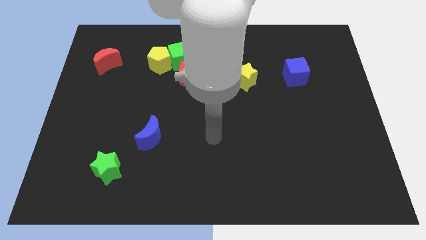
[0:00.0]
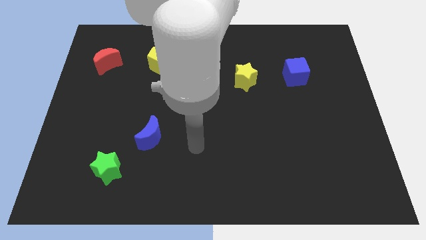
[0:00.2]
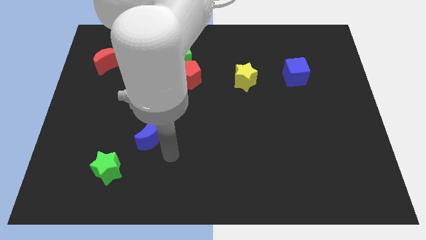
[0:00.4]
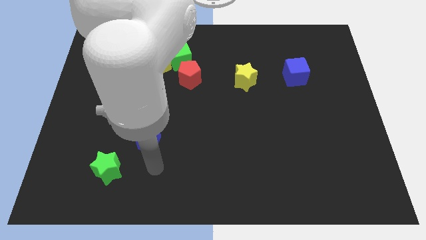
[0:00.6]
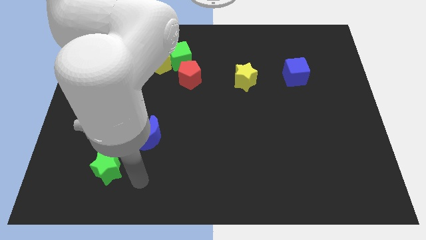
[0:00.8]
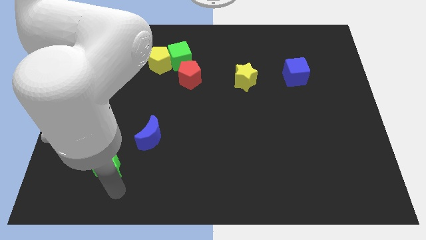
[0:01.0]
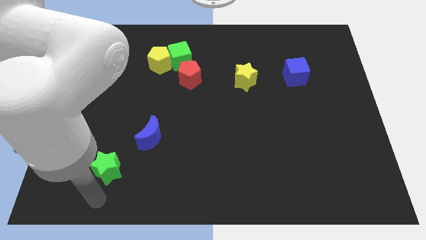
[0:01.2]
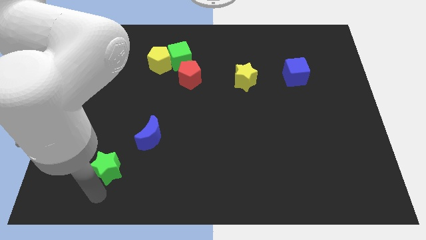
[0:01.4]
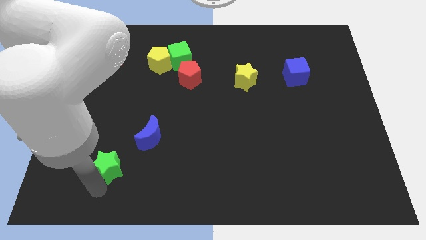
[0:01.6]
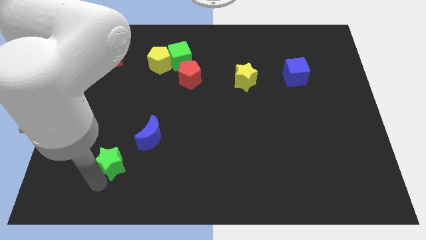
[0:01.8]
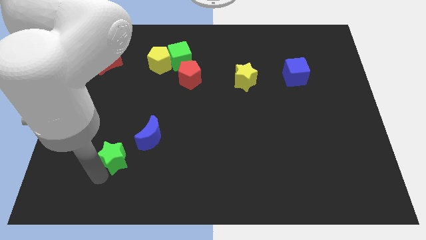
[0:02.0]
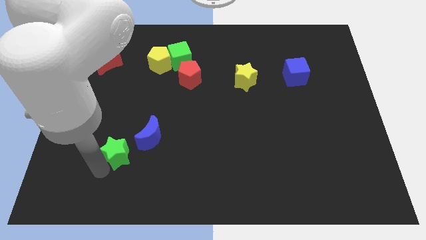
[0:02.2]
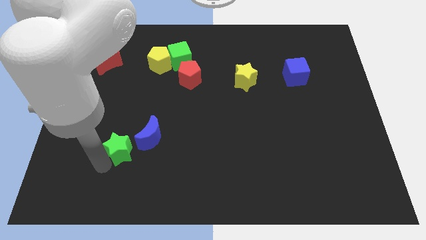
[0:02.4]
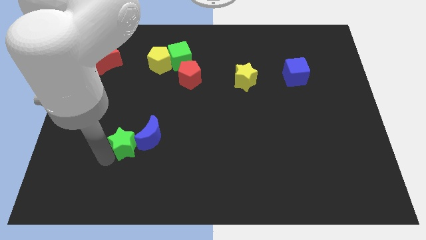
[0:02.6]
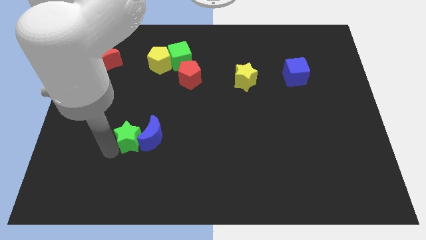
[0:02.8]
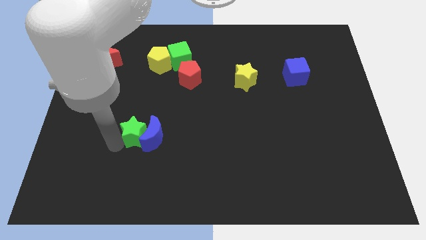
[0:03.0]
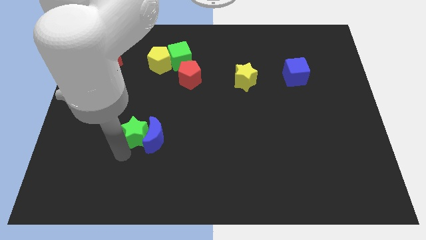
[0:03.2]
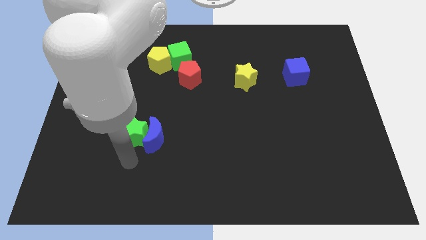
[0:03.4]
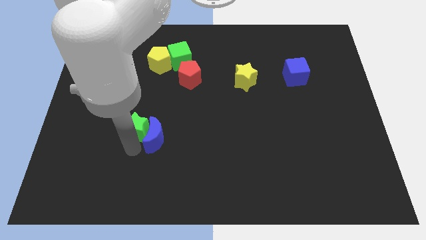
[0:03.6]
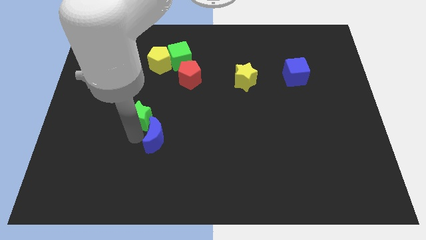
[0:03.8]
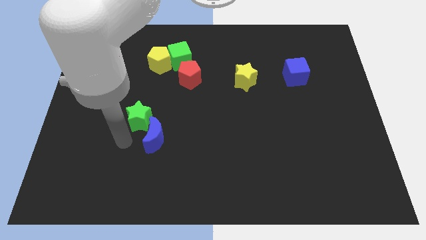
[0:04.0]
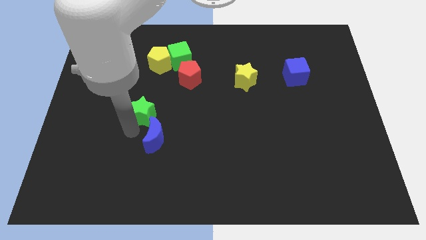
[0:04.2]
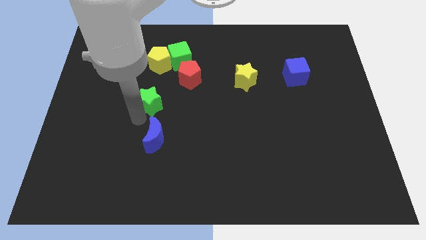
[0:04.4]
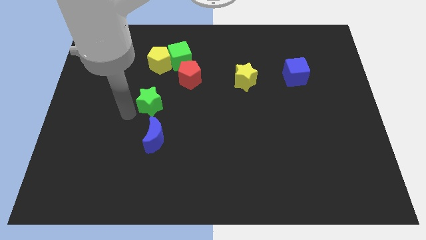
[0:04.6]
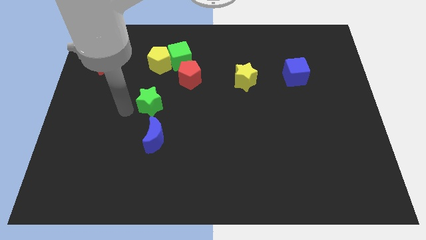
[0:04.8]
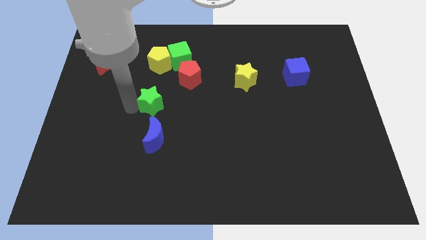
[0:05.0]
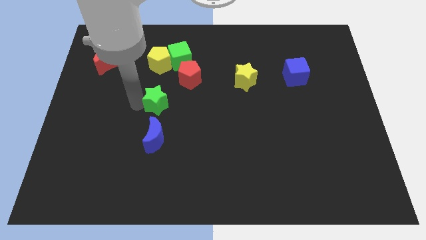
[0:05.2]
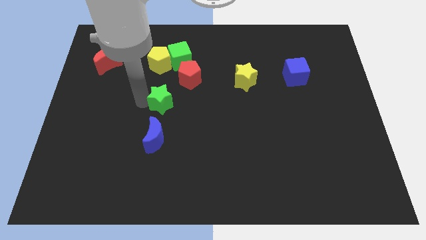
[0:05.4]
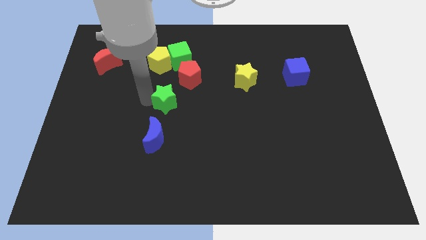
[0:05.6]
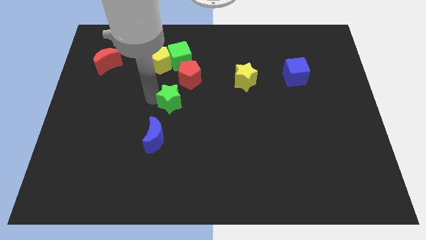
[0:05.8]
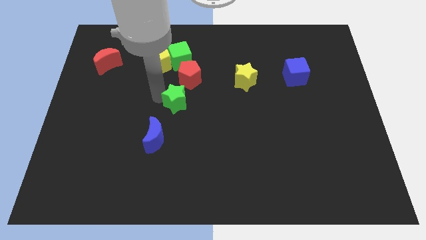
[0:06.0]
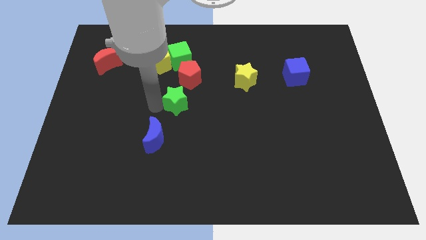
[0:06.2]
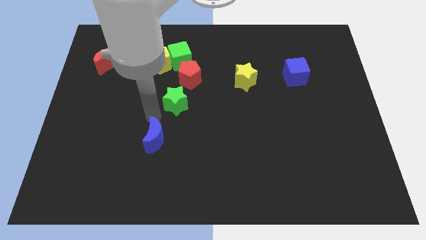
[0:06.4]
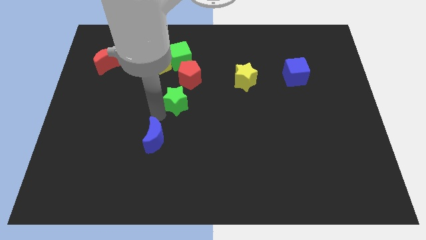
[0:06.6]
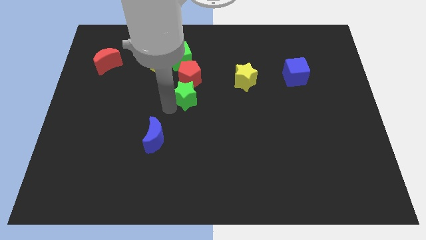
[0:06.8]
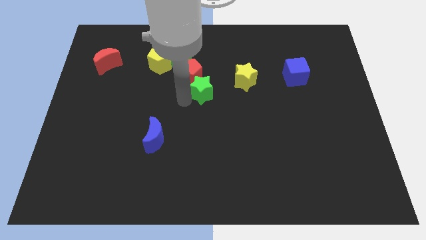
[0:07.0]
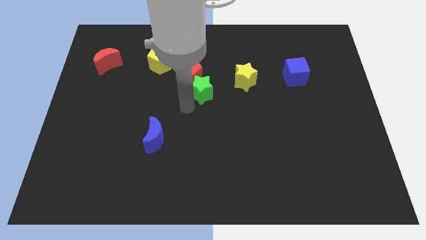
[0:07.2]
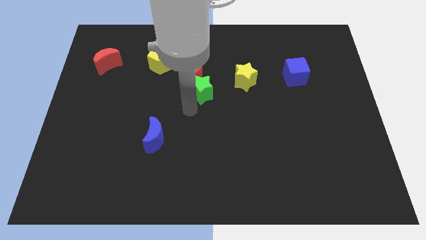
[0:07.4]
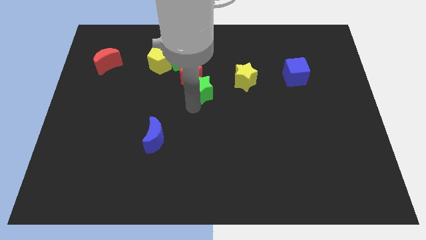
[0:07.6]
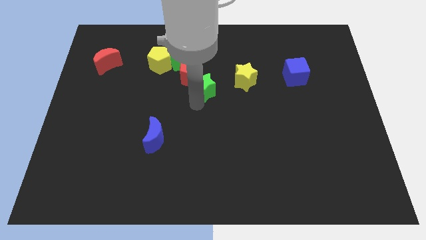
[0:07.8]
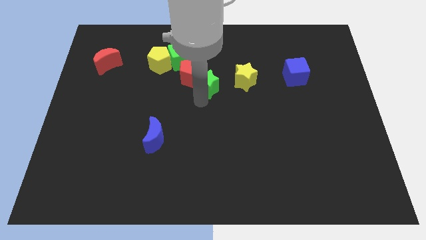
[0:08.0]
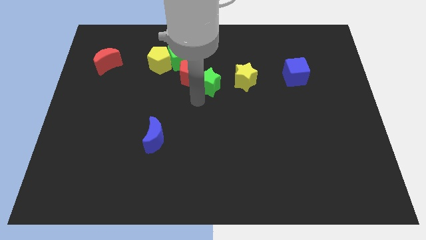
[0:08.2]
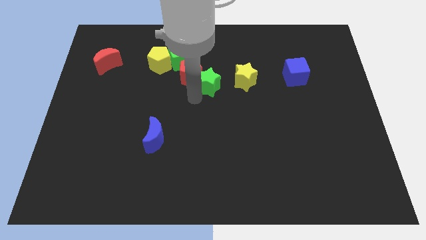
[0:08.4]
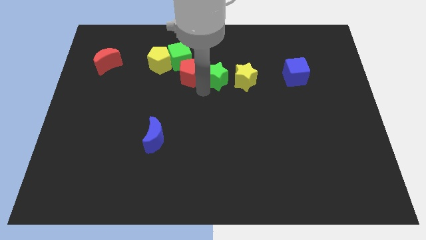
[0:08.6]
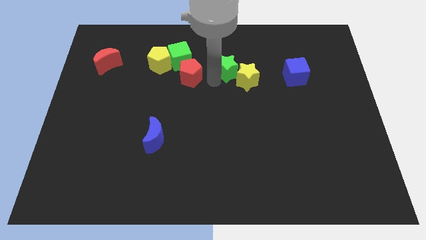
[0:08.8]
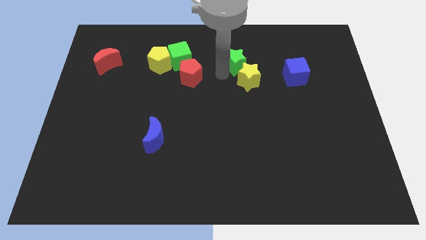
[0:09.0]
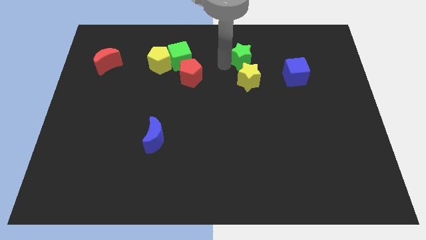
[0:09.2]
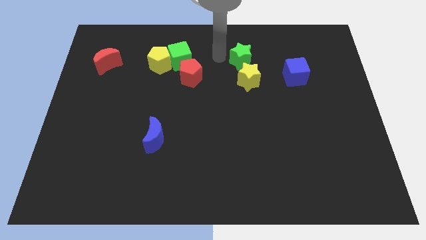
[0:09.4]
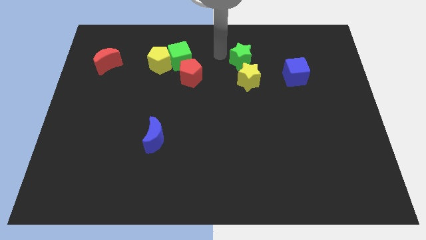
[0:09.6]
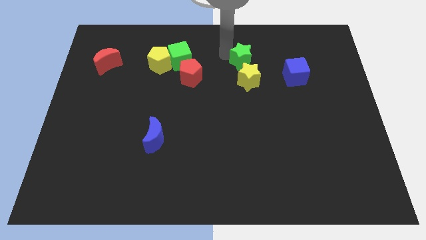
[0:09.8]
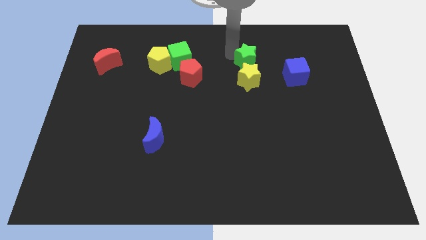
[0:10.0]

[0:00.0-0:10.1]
move the green star diagonally up and to the right of the yellow star

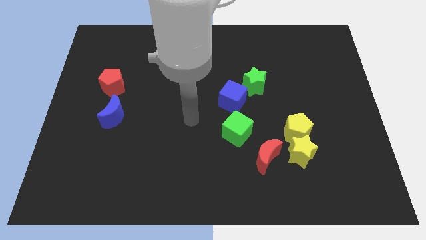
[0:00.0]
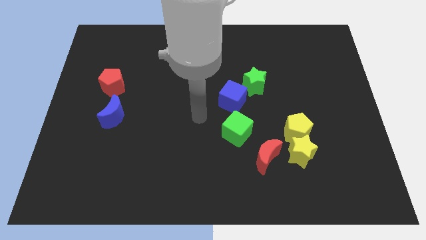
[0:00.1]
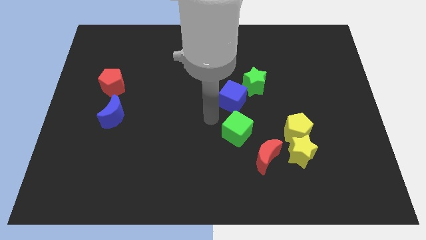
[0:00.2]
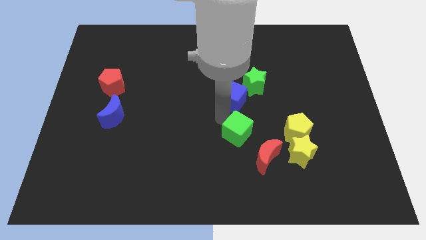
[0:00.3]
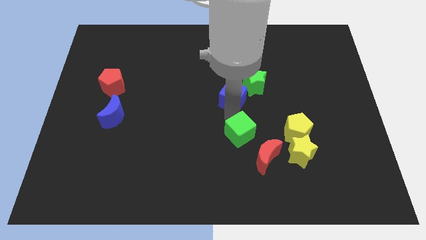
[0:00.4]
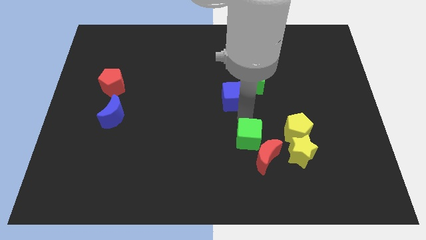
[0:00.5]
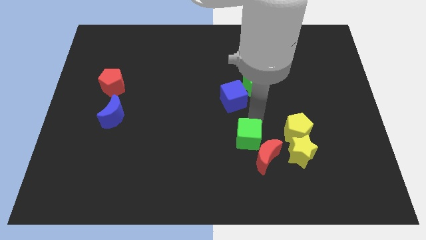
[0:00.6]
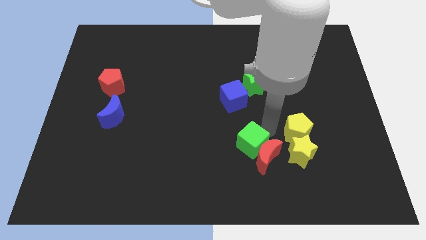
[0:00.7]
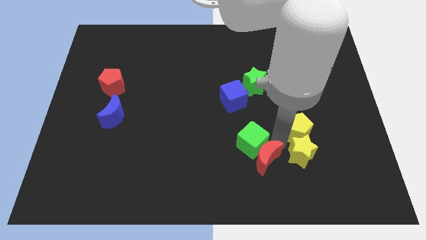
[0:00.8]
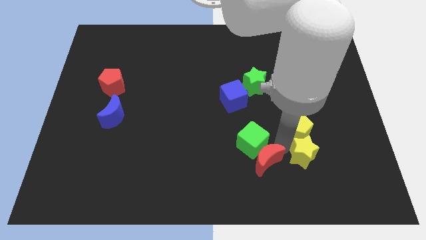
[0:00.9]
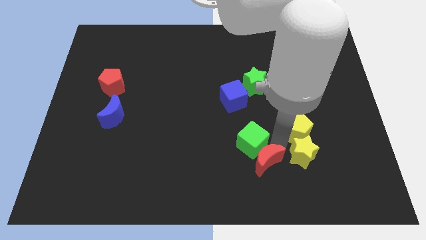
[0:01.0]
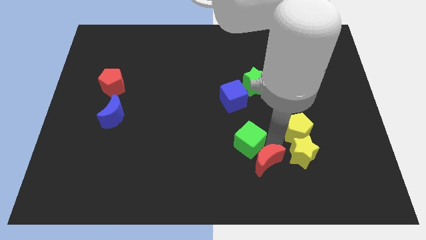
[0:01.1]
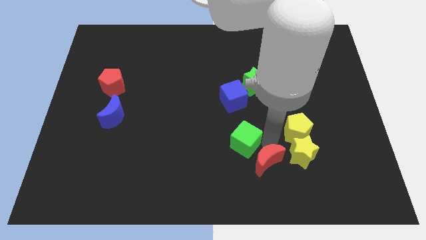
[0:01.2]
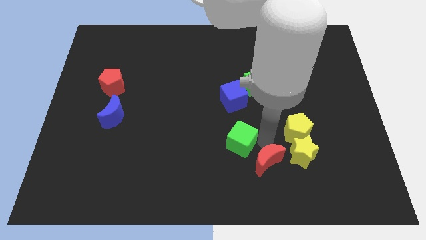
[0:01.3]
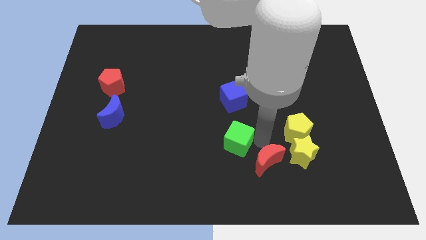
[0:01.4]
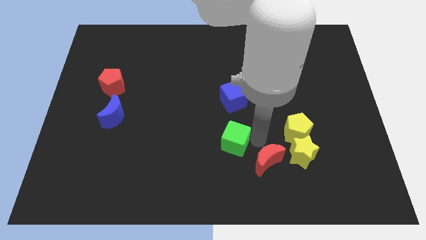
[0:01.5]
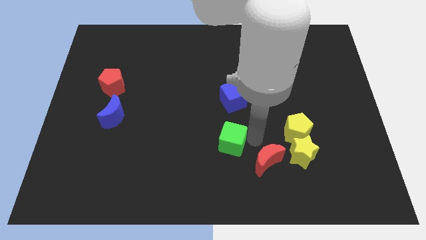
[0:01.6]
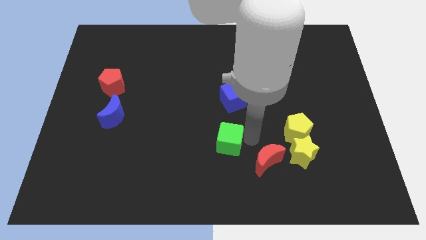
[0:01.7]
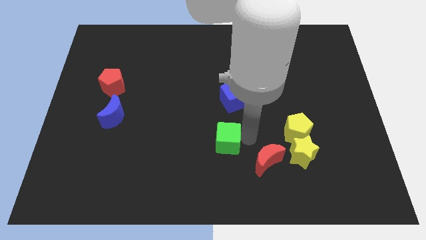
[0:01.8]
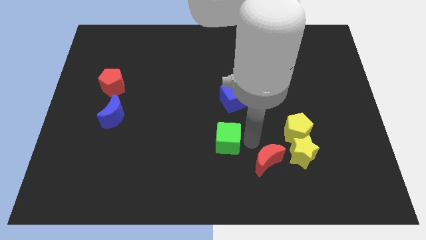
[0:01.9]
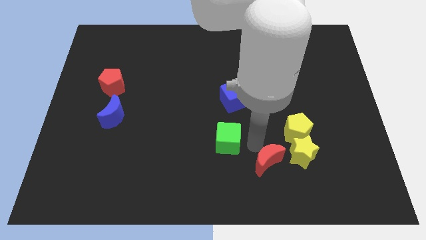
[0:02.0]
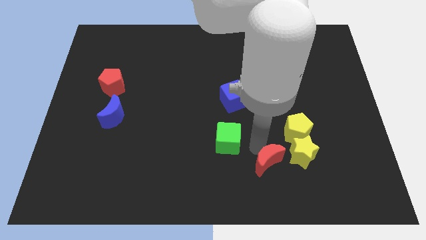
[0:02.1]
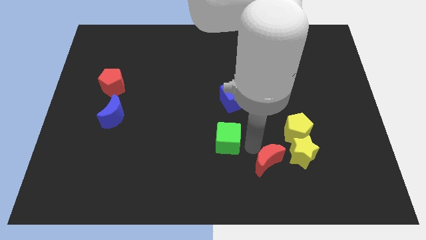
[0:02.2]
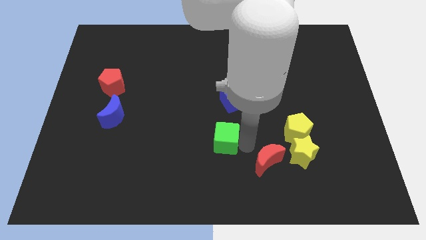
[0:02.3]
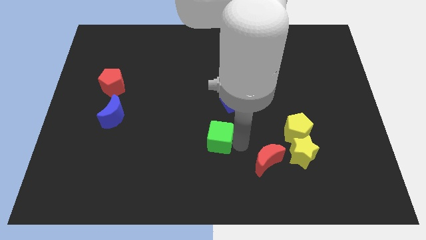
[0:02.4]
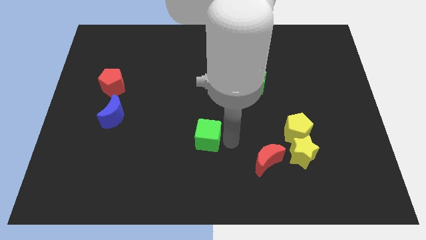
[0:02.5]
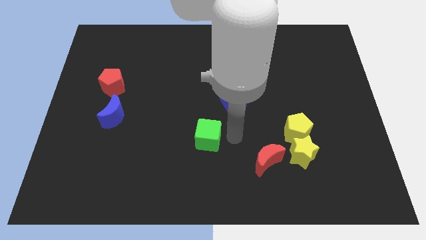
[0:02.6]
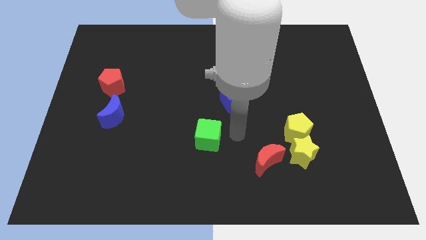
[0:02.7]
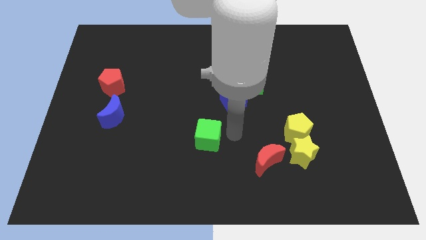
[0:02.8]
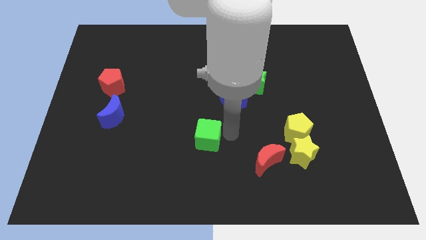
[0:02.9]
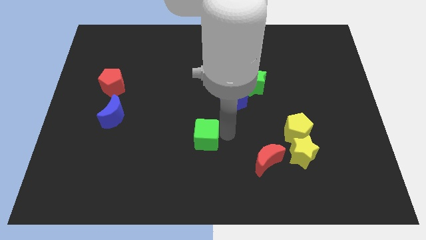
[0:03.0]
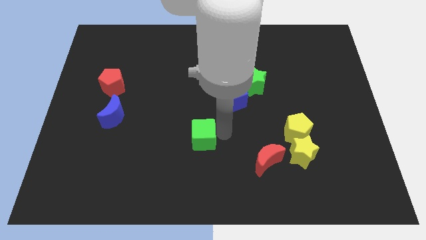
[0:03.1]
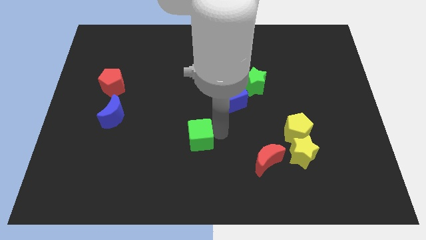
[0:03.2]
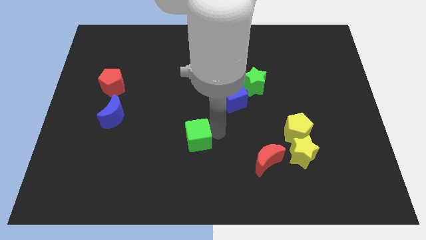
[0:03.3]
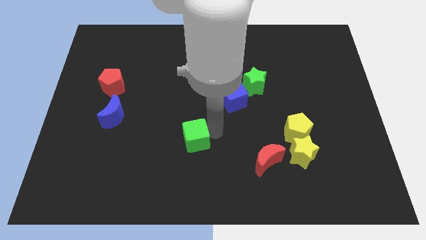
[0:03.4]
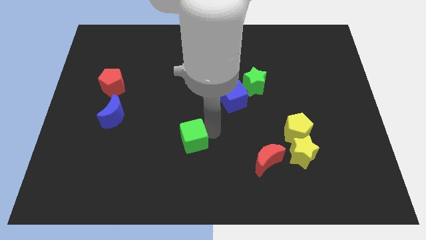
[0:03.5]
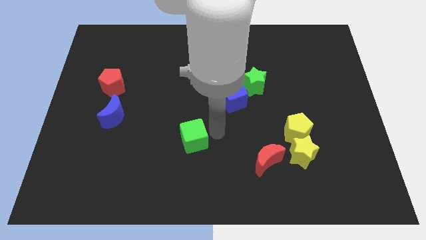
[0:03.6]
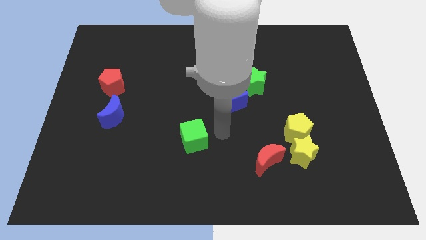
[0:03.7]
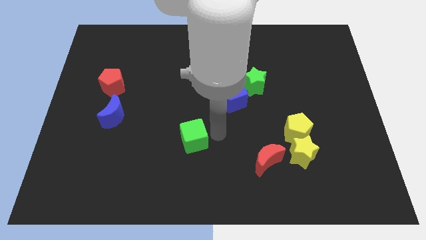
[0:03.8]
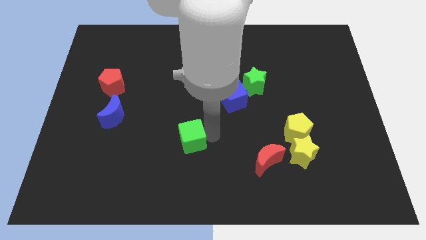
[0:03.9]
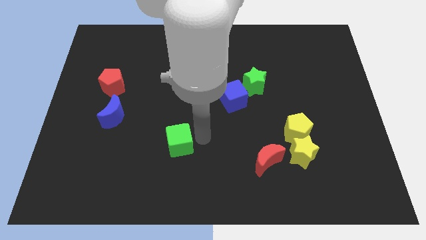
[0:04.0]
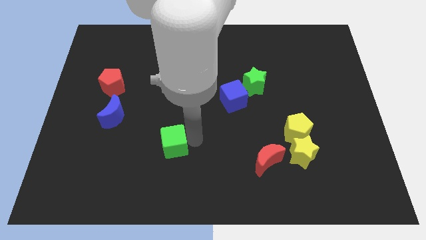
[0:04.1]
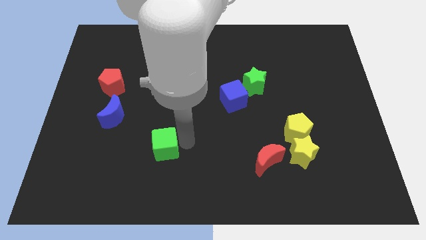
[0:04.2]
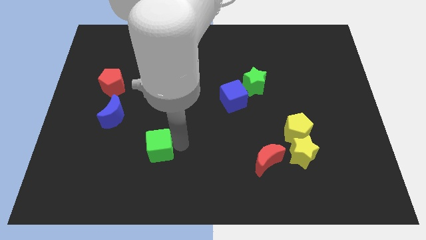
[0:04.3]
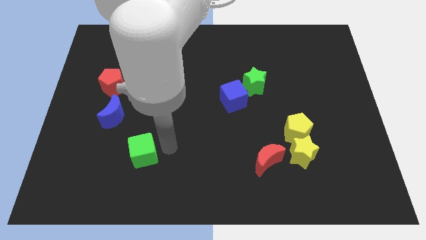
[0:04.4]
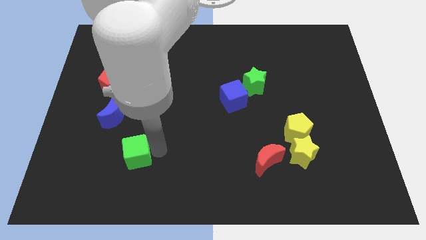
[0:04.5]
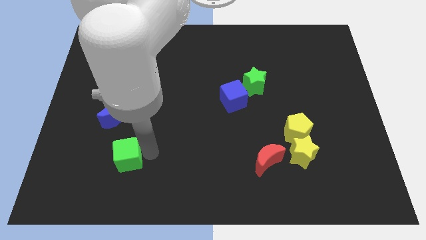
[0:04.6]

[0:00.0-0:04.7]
put the green cube to the bottom of the blue moon
